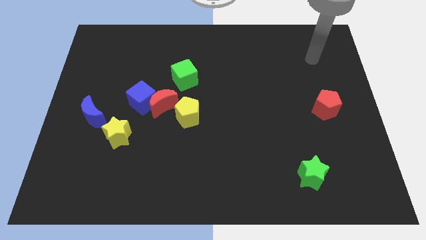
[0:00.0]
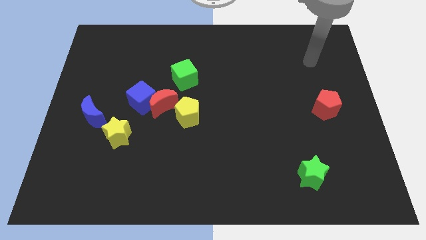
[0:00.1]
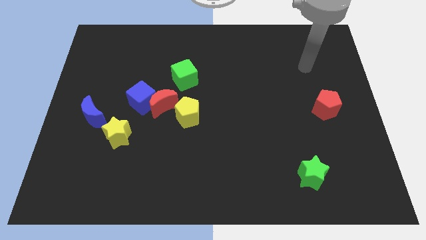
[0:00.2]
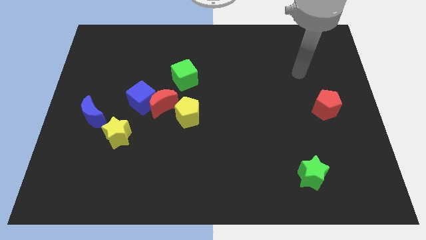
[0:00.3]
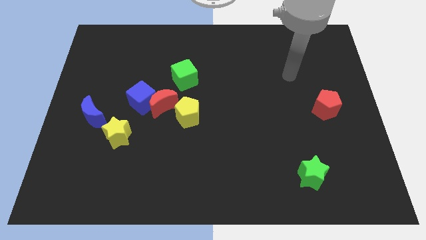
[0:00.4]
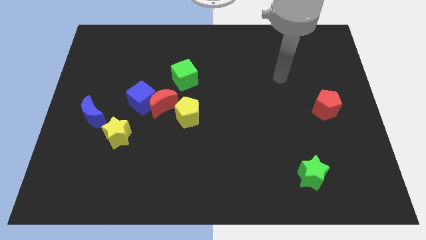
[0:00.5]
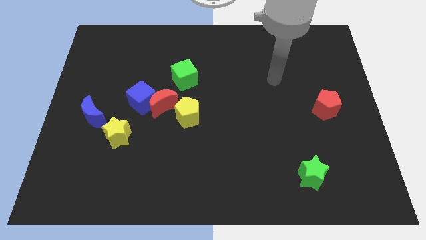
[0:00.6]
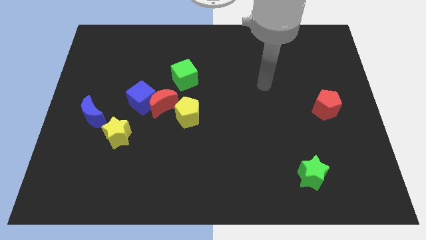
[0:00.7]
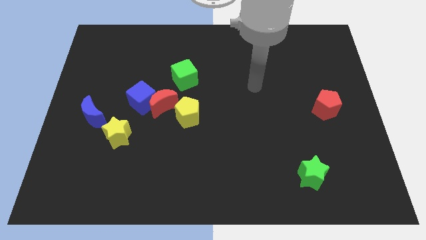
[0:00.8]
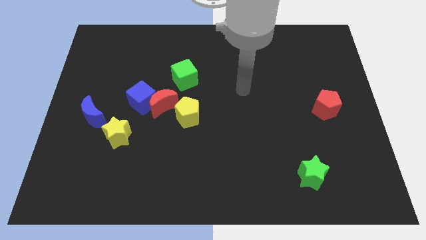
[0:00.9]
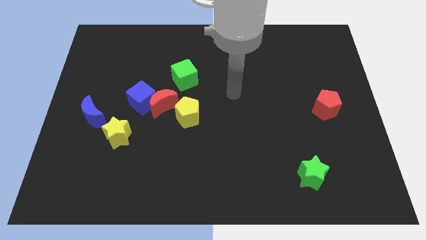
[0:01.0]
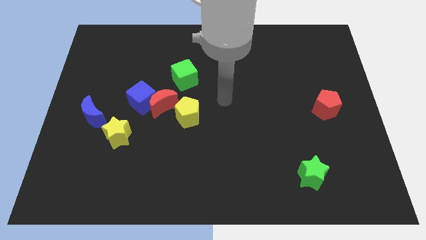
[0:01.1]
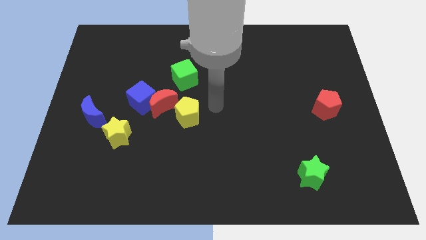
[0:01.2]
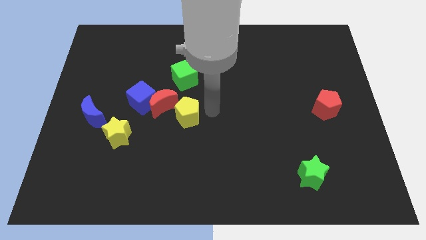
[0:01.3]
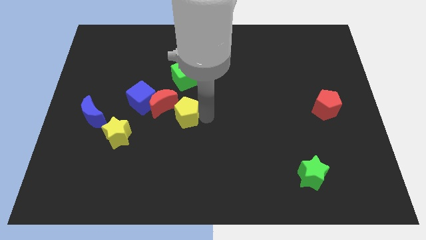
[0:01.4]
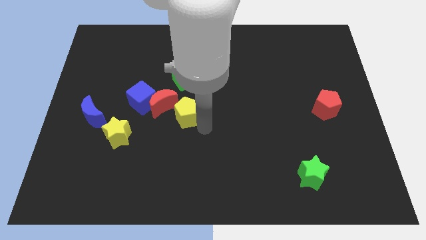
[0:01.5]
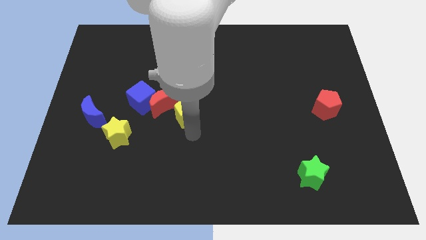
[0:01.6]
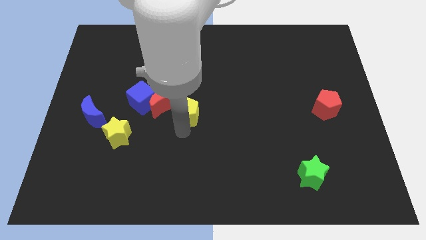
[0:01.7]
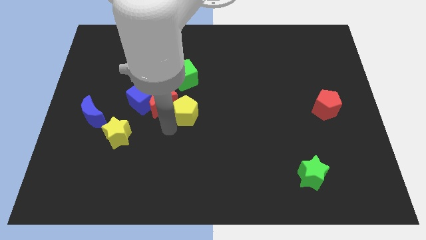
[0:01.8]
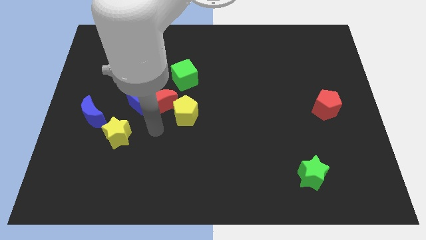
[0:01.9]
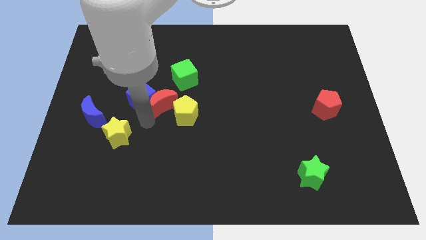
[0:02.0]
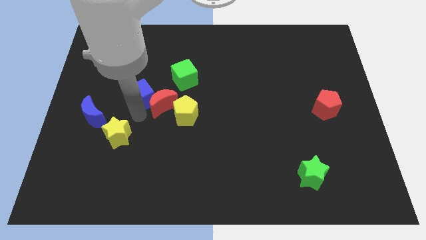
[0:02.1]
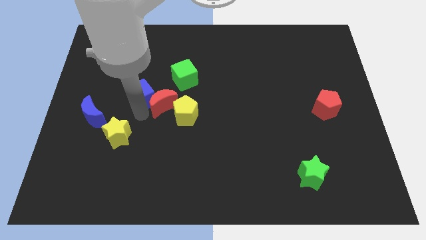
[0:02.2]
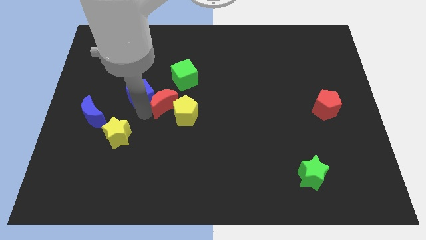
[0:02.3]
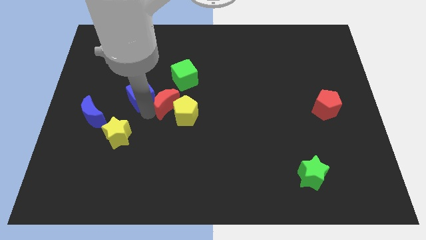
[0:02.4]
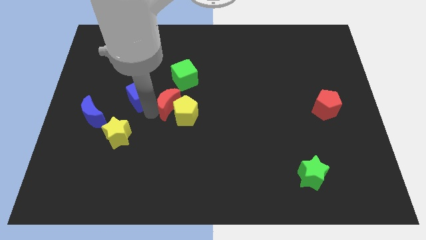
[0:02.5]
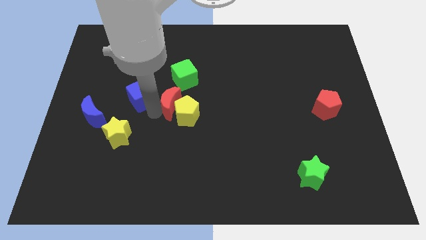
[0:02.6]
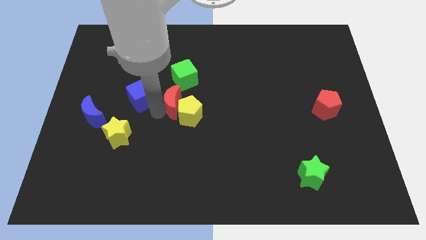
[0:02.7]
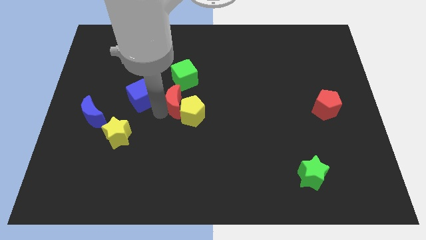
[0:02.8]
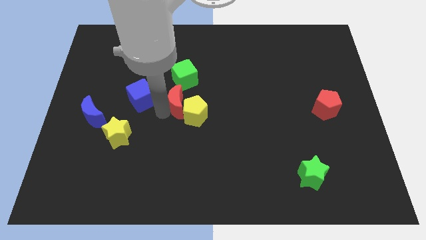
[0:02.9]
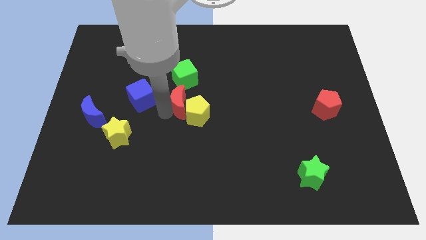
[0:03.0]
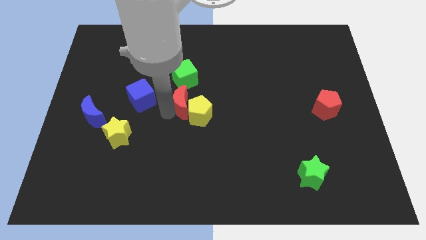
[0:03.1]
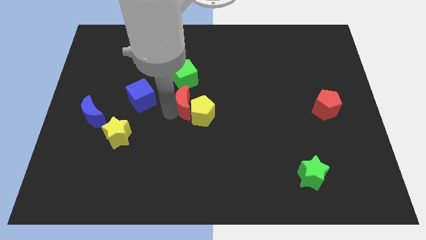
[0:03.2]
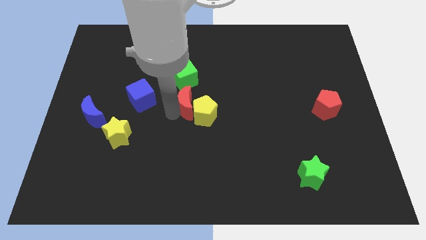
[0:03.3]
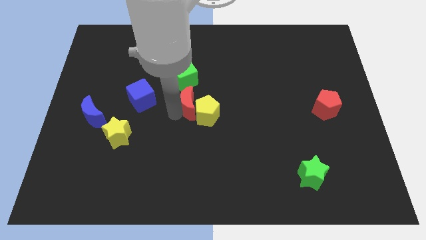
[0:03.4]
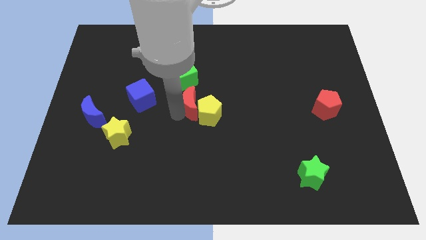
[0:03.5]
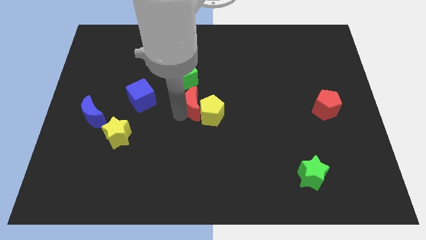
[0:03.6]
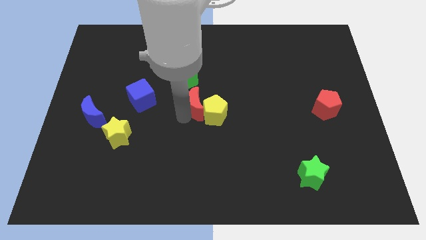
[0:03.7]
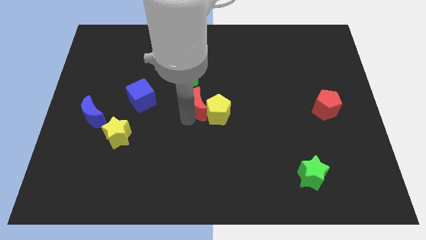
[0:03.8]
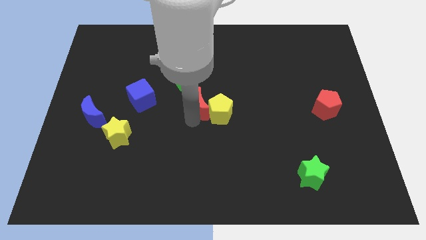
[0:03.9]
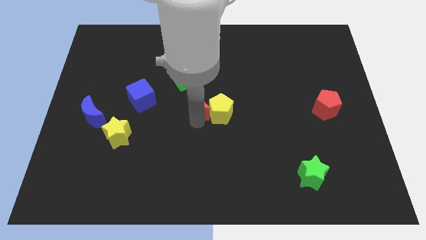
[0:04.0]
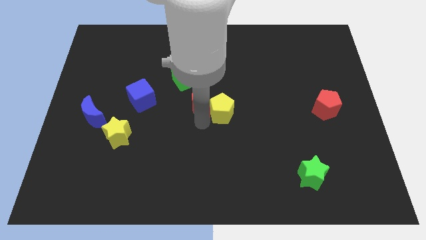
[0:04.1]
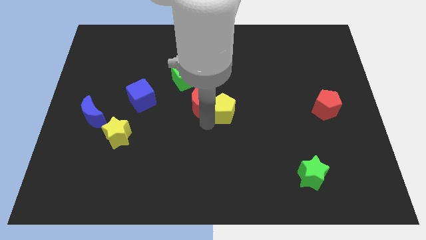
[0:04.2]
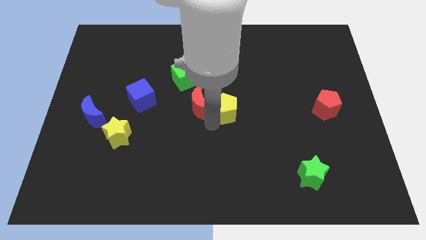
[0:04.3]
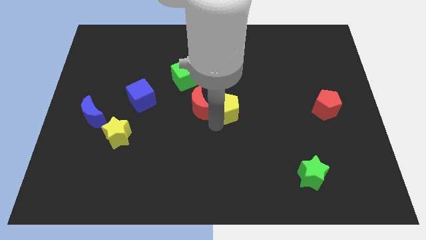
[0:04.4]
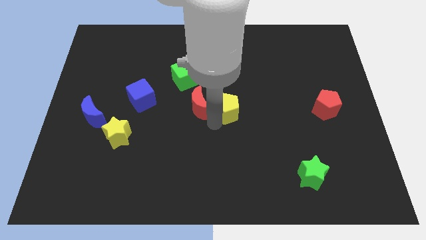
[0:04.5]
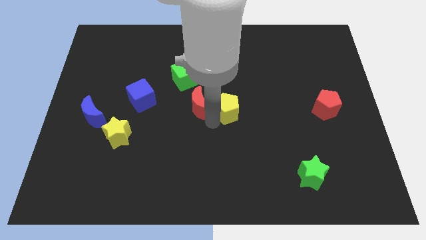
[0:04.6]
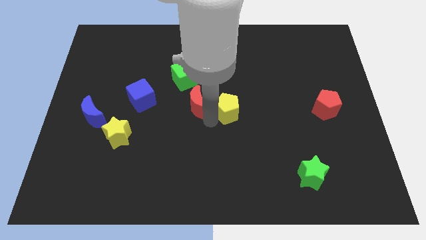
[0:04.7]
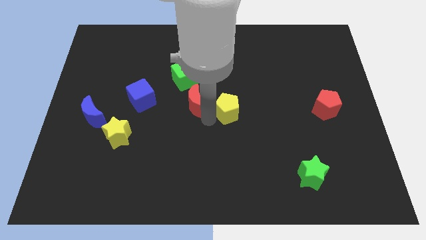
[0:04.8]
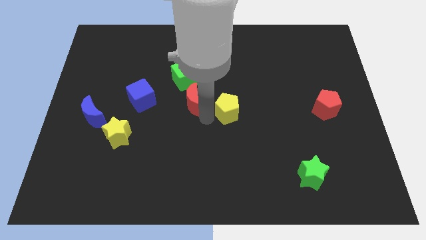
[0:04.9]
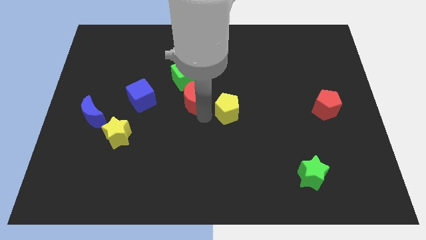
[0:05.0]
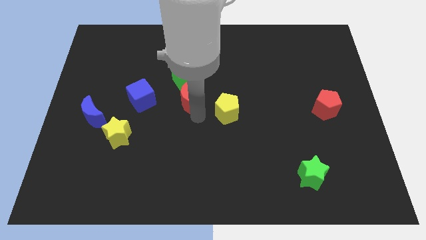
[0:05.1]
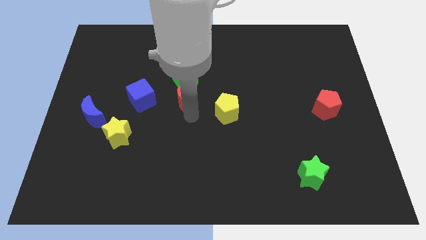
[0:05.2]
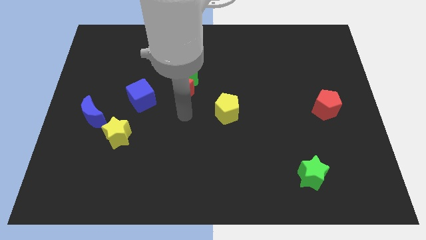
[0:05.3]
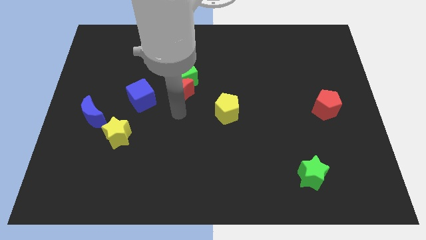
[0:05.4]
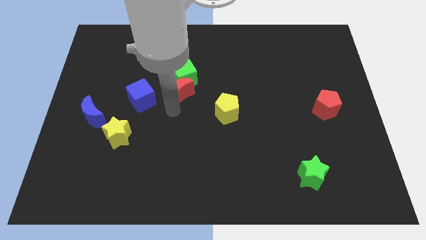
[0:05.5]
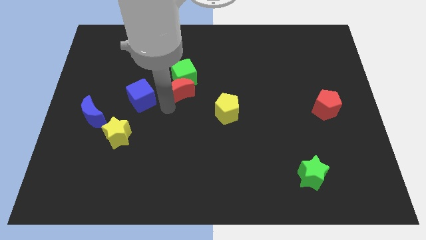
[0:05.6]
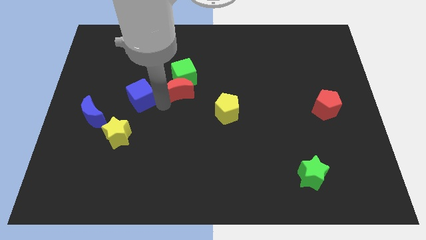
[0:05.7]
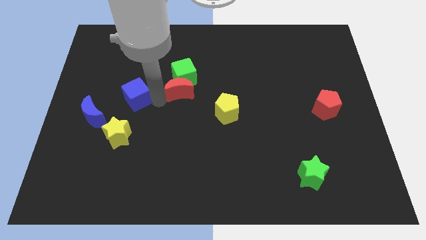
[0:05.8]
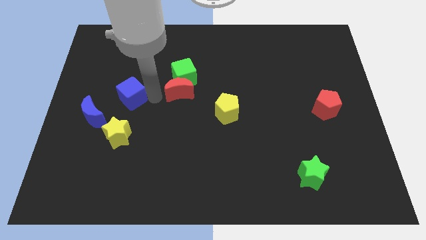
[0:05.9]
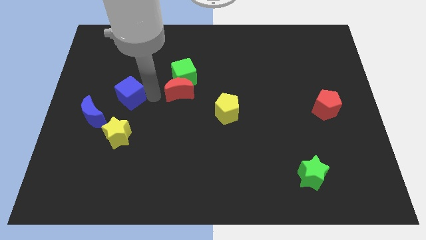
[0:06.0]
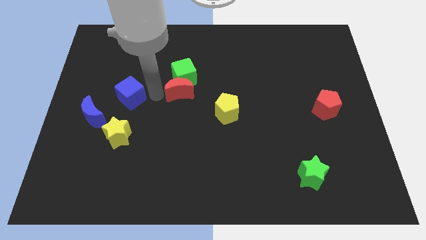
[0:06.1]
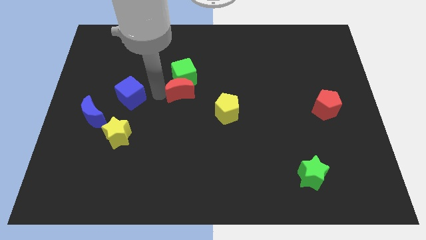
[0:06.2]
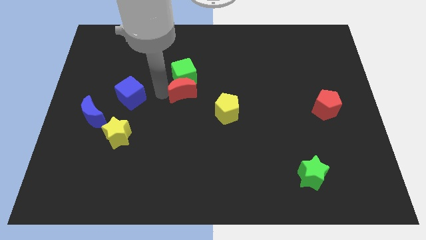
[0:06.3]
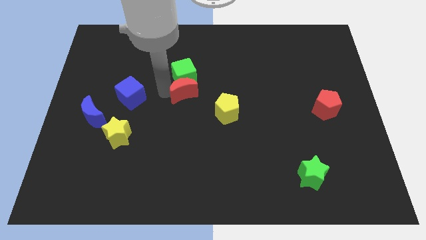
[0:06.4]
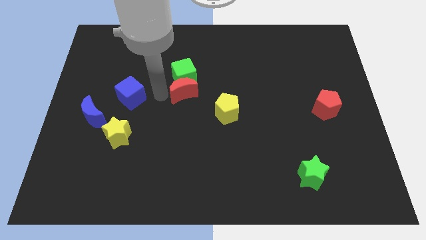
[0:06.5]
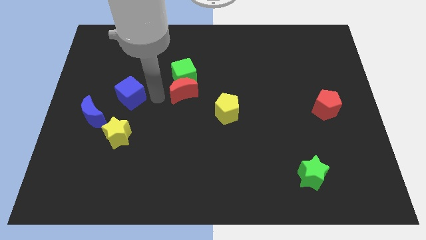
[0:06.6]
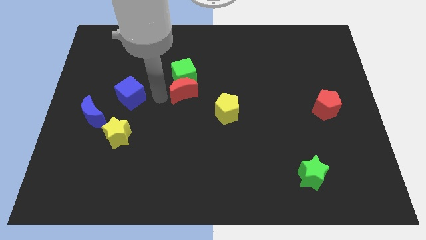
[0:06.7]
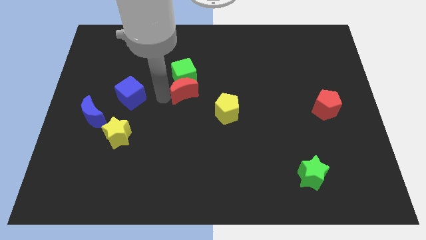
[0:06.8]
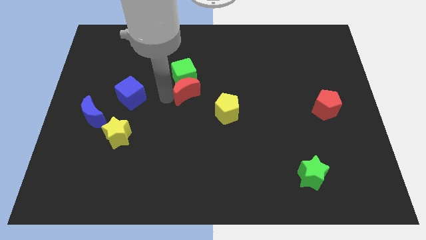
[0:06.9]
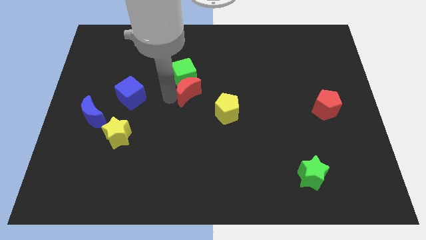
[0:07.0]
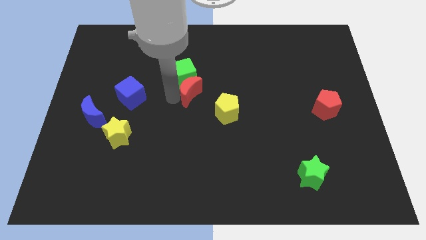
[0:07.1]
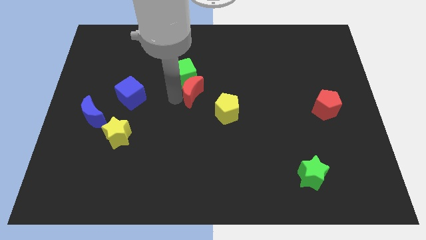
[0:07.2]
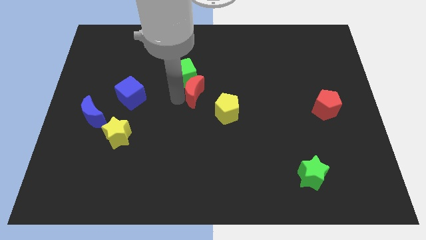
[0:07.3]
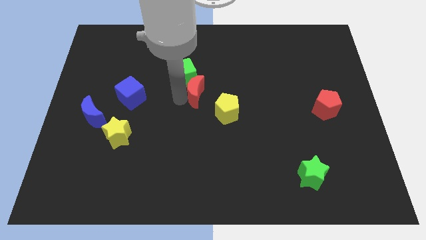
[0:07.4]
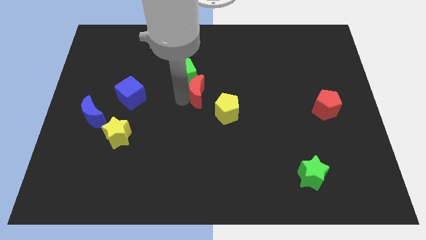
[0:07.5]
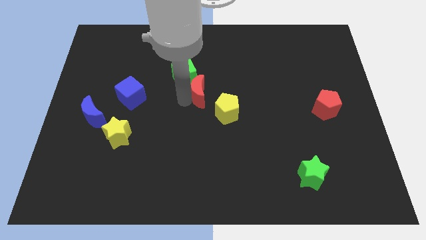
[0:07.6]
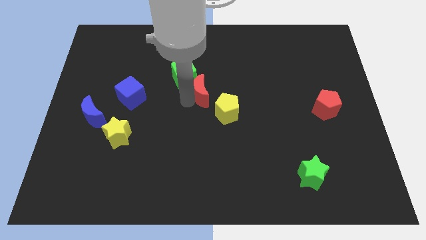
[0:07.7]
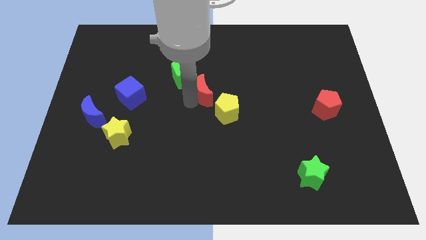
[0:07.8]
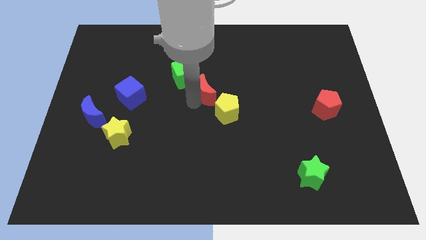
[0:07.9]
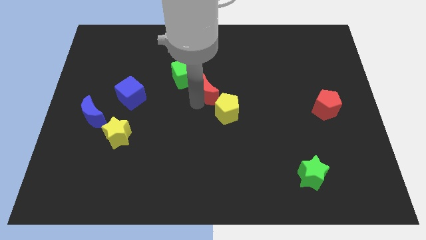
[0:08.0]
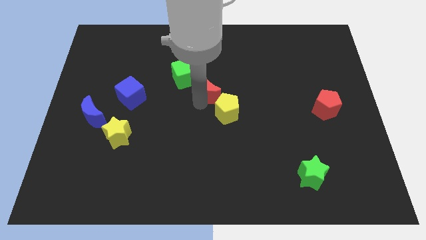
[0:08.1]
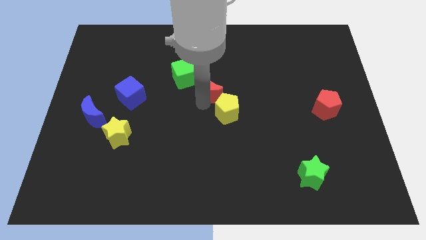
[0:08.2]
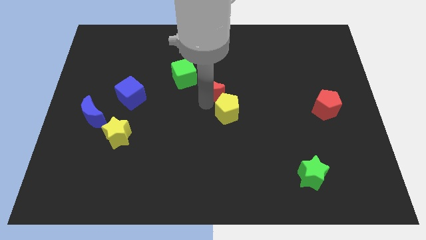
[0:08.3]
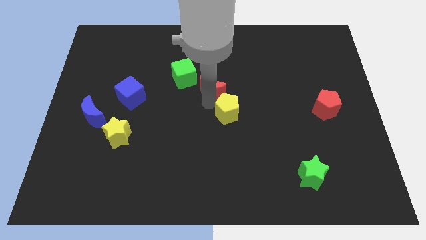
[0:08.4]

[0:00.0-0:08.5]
put the red moon right of the green cube
